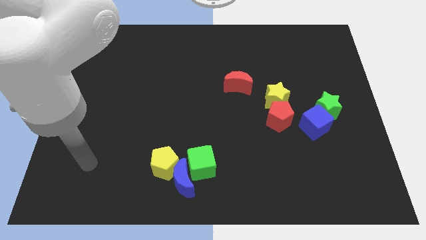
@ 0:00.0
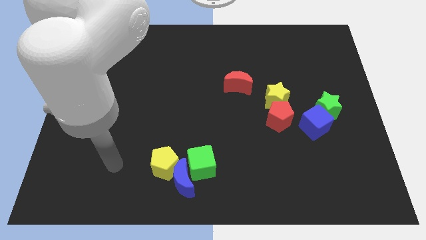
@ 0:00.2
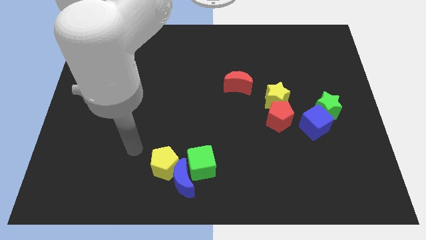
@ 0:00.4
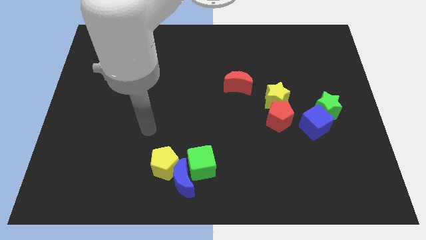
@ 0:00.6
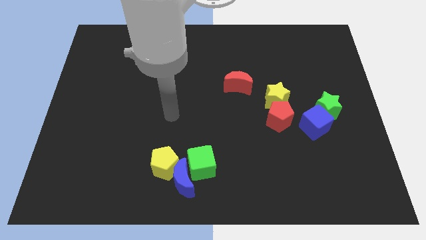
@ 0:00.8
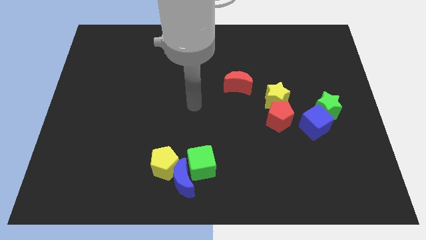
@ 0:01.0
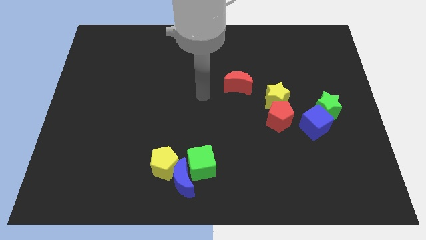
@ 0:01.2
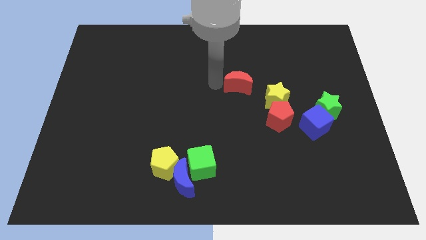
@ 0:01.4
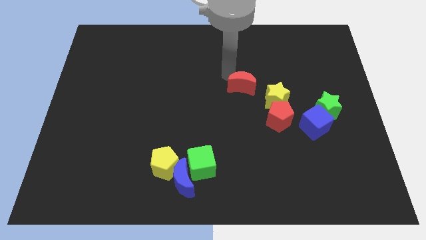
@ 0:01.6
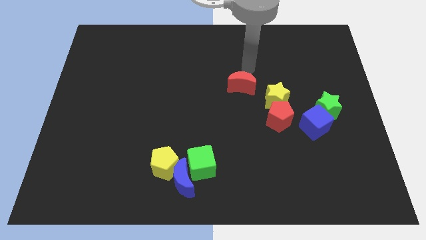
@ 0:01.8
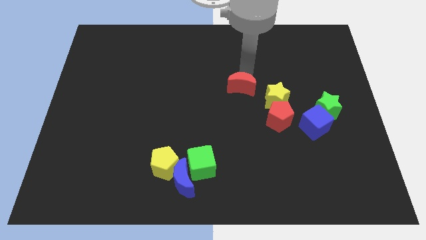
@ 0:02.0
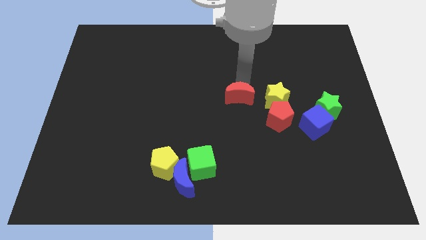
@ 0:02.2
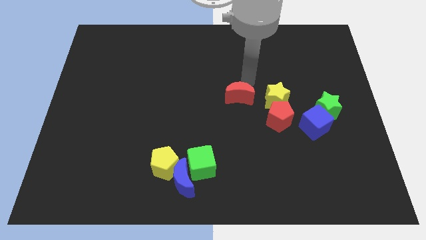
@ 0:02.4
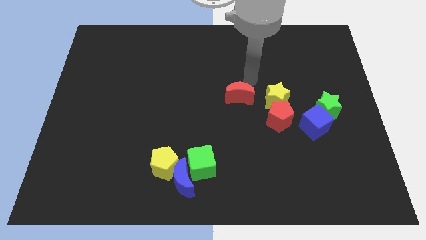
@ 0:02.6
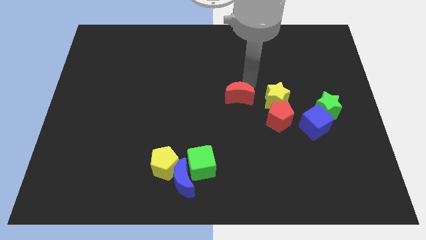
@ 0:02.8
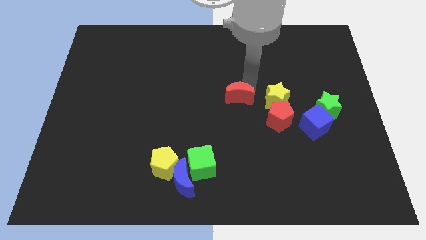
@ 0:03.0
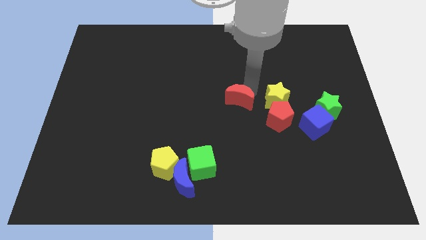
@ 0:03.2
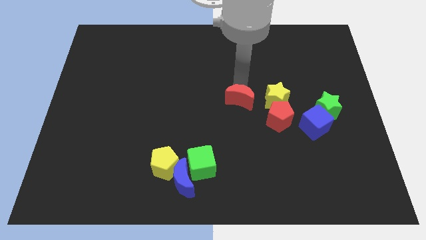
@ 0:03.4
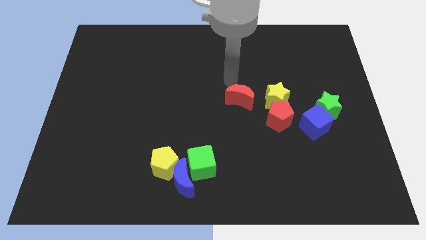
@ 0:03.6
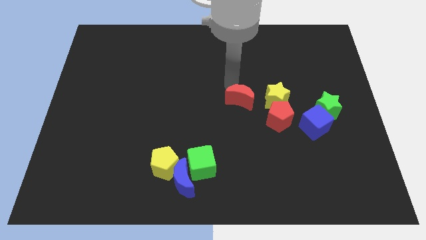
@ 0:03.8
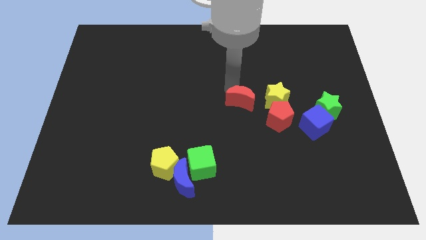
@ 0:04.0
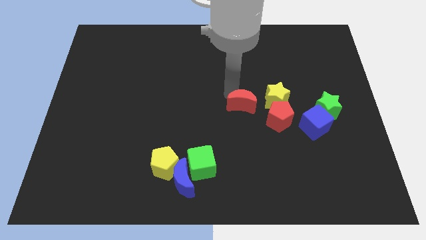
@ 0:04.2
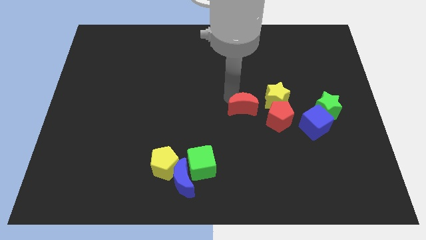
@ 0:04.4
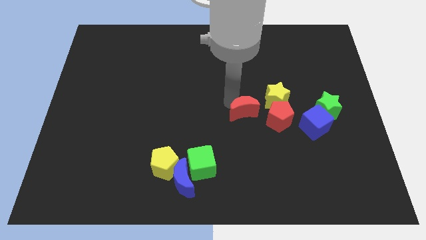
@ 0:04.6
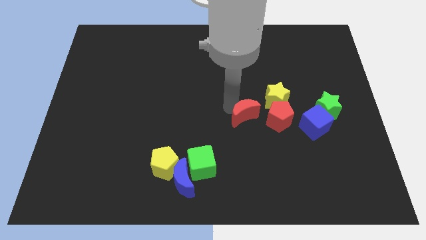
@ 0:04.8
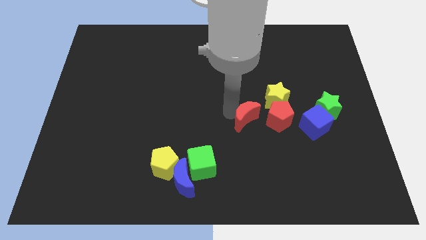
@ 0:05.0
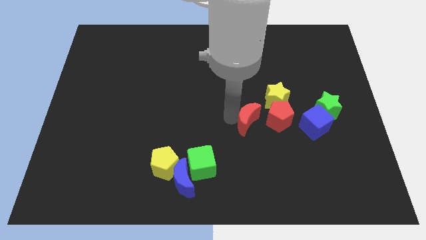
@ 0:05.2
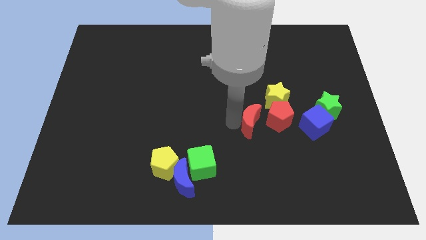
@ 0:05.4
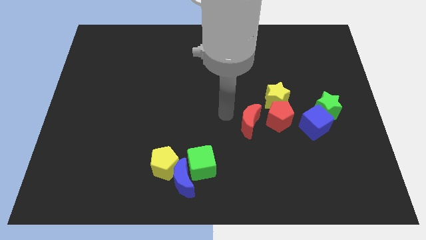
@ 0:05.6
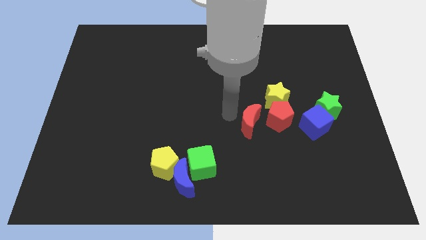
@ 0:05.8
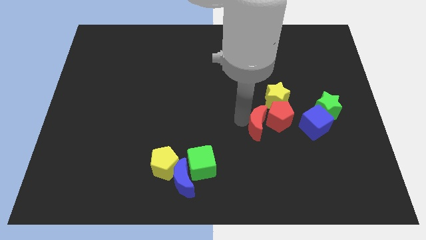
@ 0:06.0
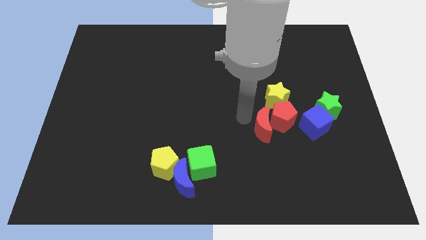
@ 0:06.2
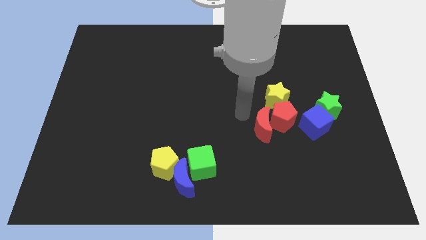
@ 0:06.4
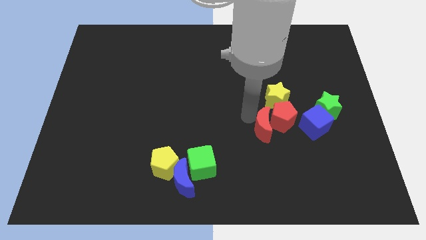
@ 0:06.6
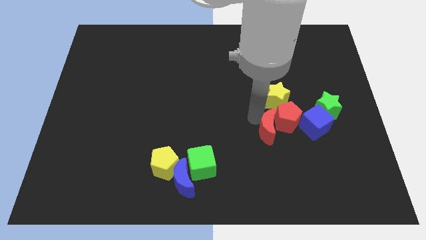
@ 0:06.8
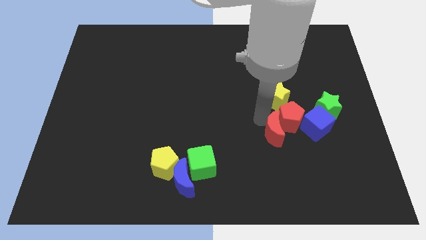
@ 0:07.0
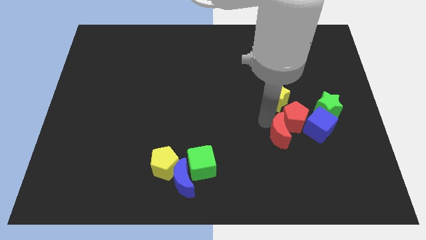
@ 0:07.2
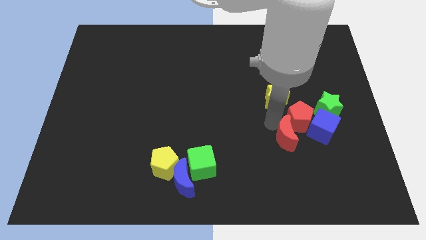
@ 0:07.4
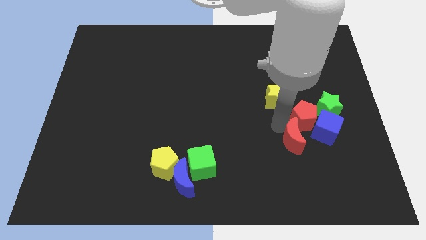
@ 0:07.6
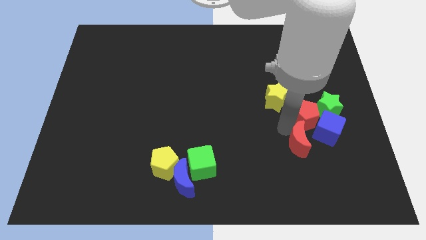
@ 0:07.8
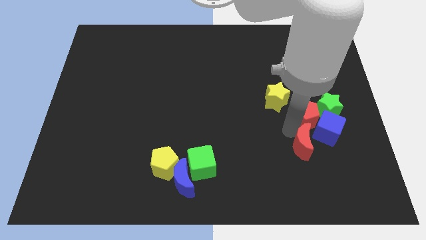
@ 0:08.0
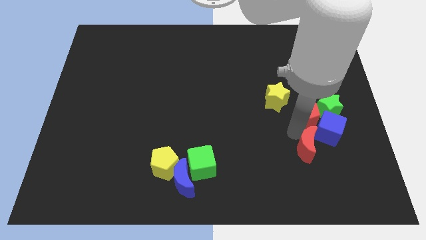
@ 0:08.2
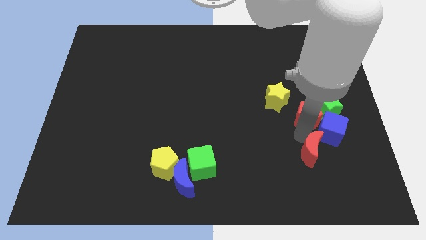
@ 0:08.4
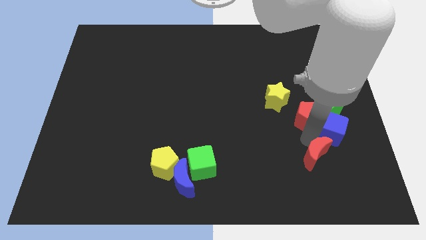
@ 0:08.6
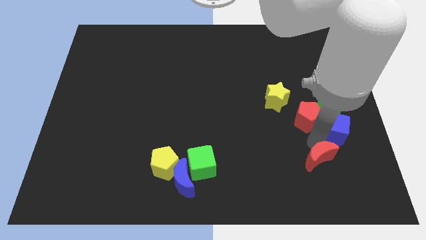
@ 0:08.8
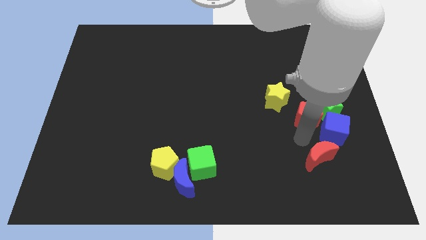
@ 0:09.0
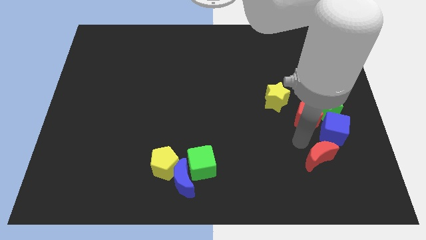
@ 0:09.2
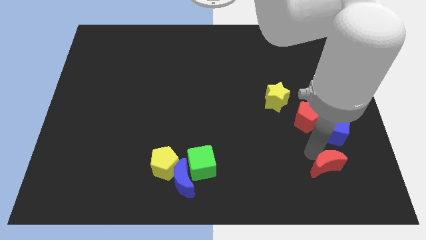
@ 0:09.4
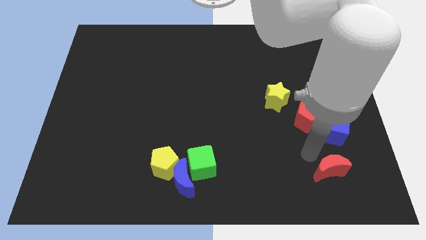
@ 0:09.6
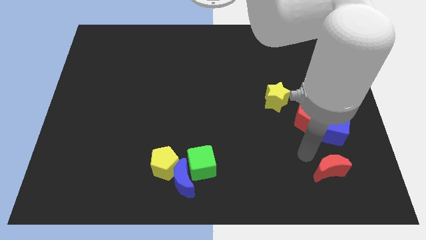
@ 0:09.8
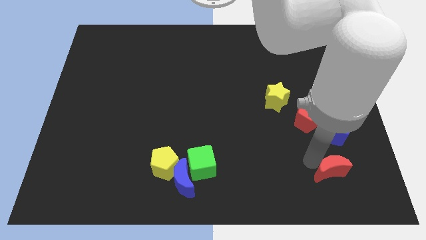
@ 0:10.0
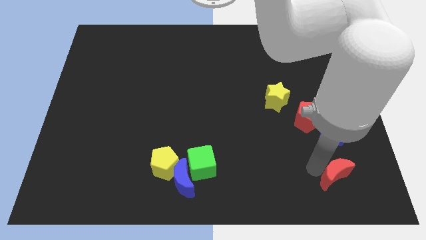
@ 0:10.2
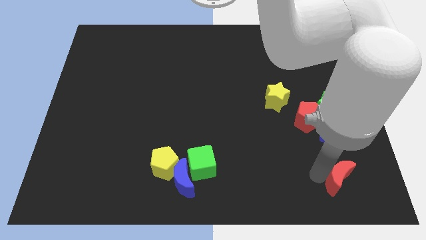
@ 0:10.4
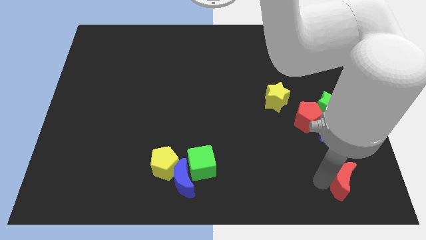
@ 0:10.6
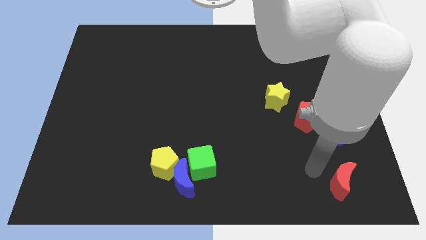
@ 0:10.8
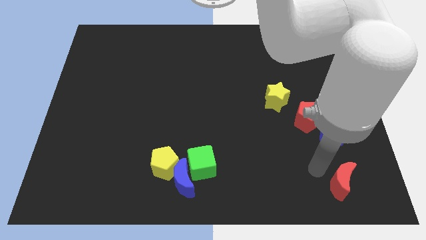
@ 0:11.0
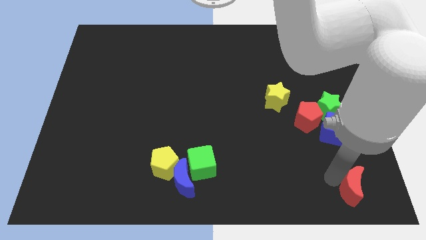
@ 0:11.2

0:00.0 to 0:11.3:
put the red moon to the bottom right of the board

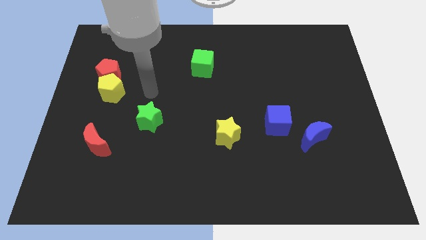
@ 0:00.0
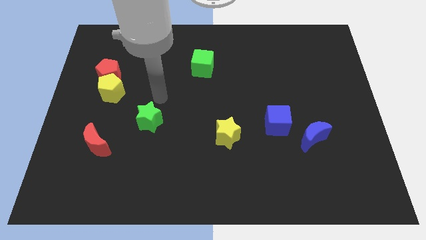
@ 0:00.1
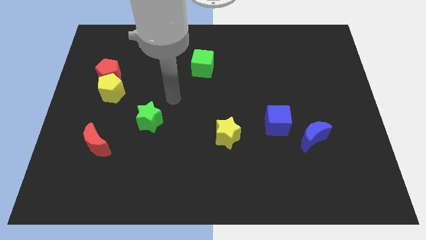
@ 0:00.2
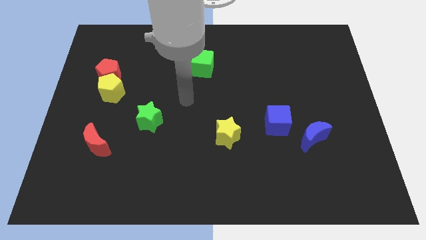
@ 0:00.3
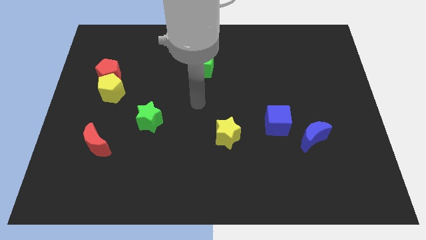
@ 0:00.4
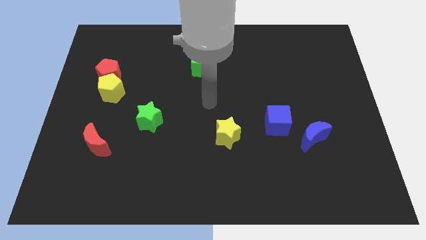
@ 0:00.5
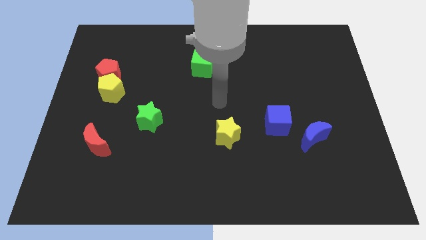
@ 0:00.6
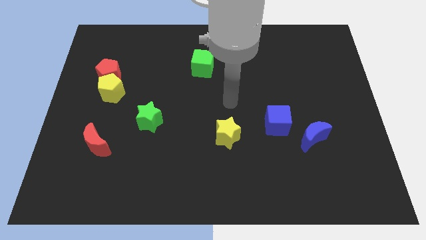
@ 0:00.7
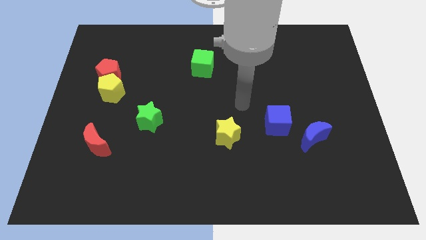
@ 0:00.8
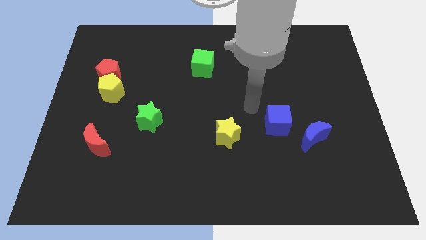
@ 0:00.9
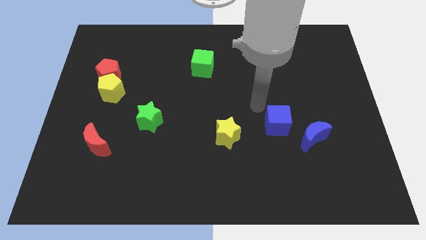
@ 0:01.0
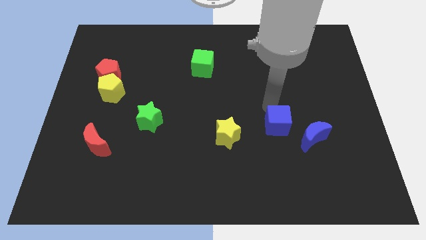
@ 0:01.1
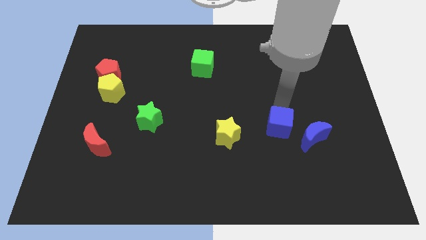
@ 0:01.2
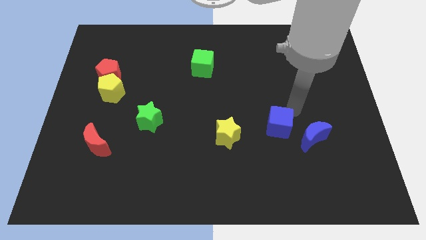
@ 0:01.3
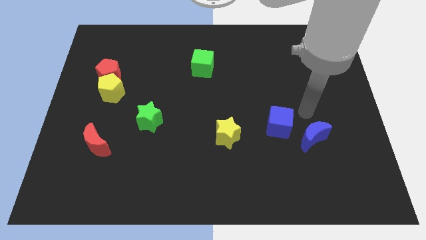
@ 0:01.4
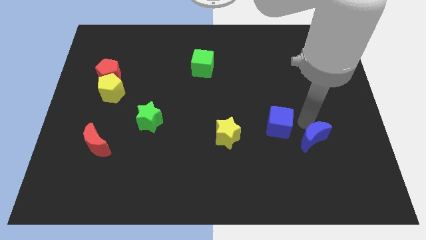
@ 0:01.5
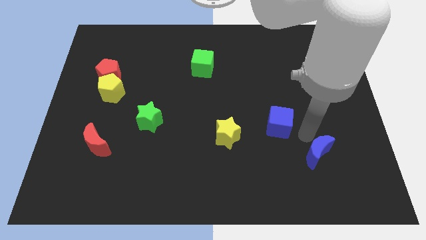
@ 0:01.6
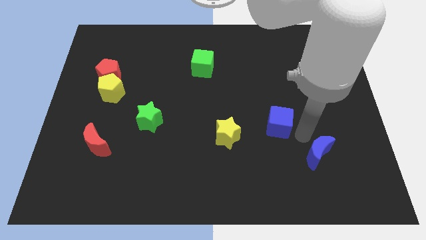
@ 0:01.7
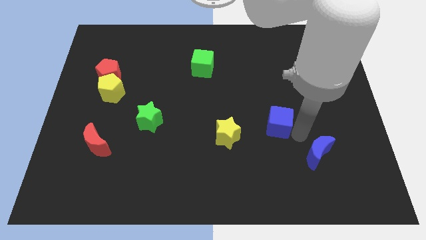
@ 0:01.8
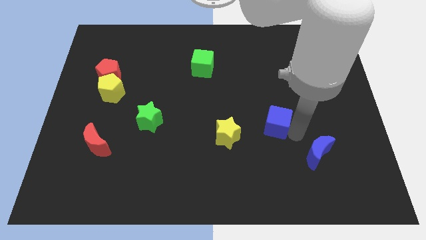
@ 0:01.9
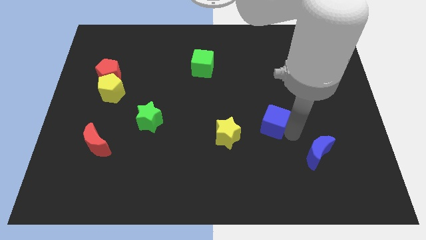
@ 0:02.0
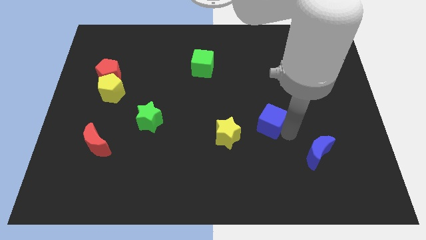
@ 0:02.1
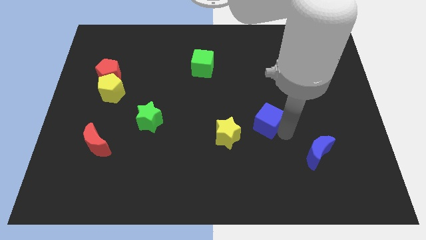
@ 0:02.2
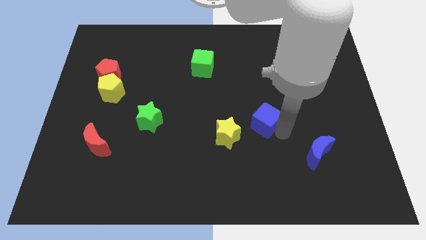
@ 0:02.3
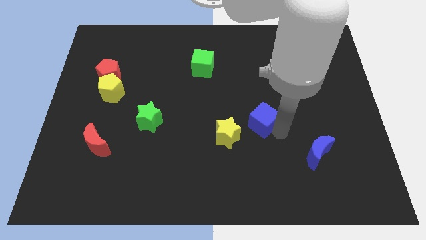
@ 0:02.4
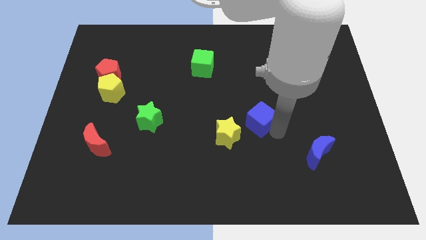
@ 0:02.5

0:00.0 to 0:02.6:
put the blue cube to the center
